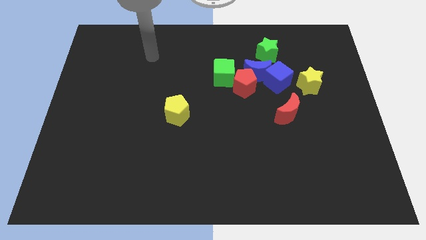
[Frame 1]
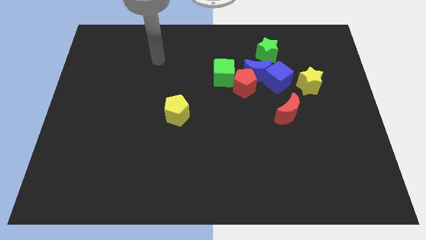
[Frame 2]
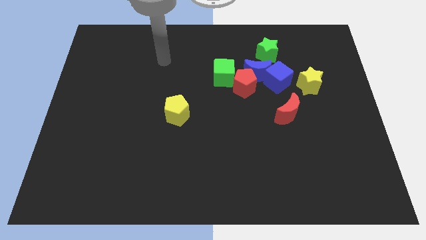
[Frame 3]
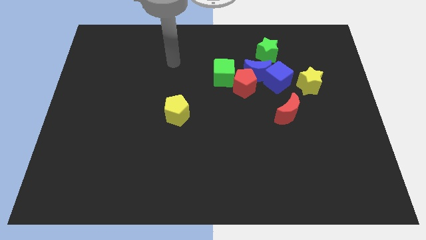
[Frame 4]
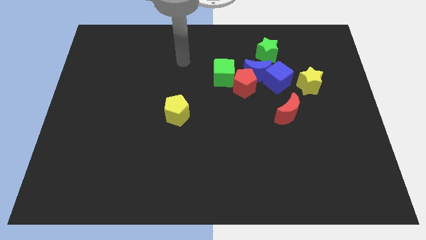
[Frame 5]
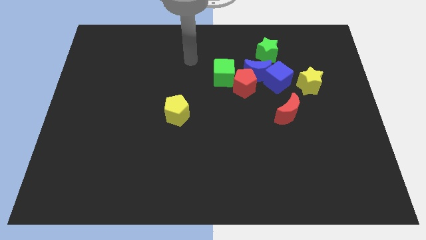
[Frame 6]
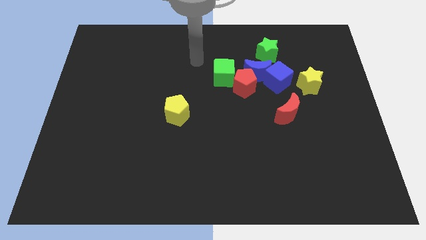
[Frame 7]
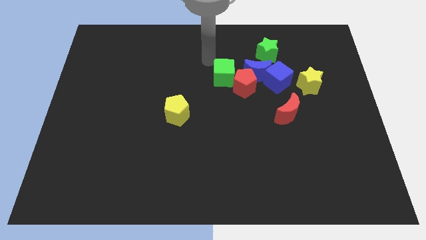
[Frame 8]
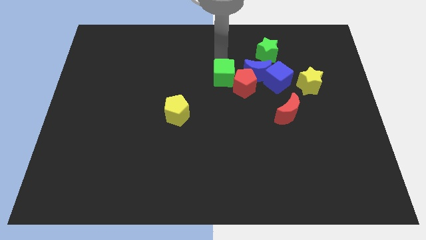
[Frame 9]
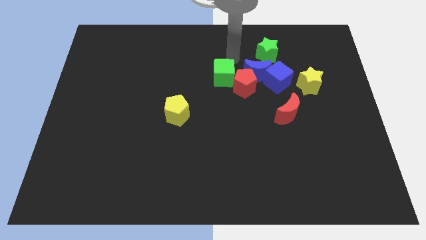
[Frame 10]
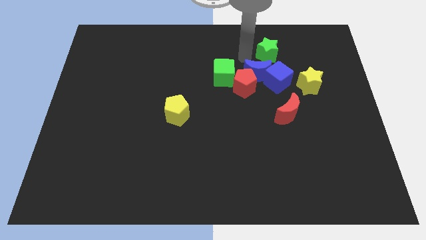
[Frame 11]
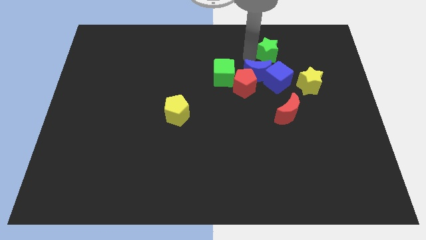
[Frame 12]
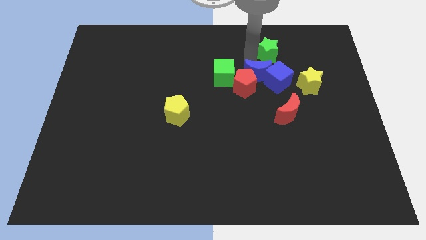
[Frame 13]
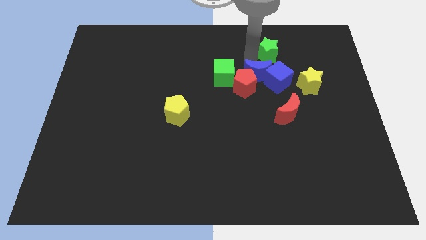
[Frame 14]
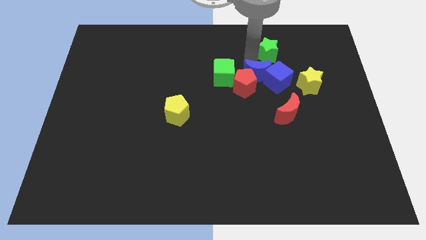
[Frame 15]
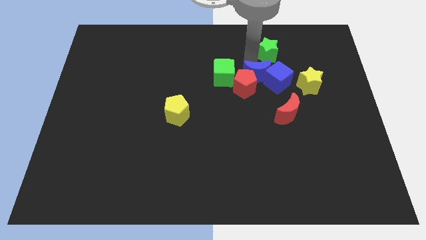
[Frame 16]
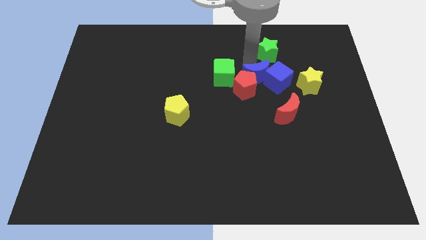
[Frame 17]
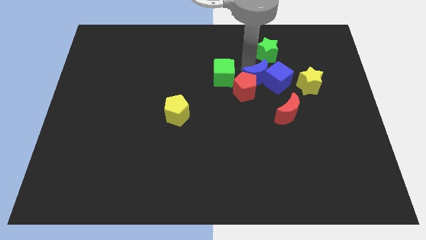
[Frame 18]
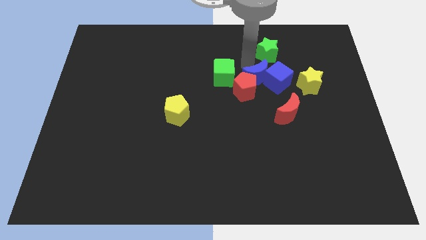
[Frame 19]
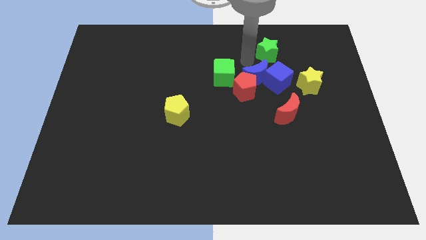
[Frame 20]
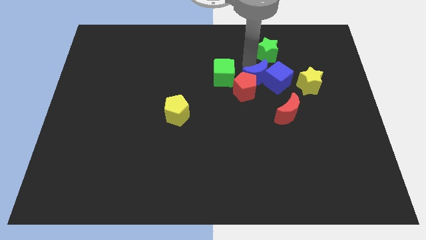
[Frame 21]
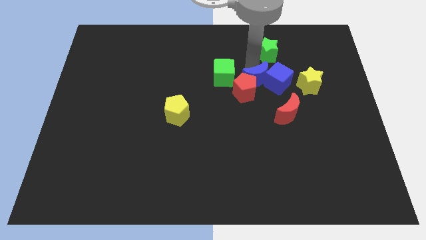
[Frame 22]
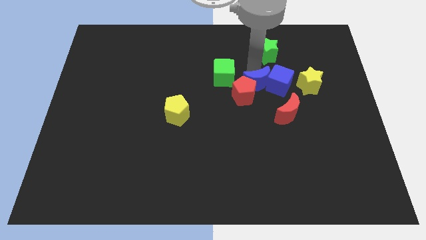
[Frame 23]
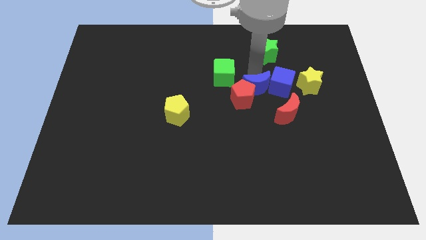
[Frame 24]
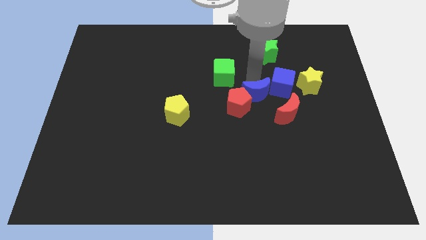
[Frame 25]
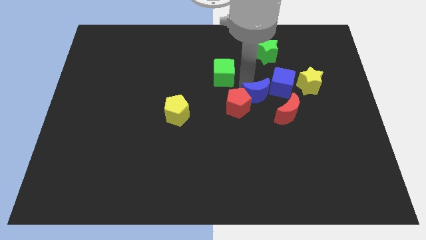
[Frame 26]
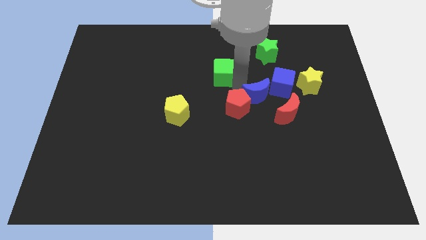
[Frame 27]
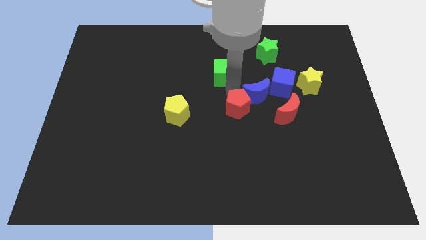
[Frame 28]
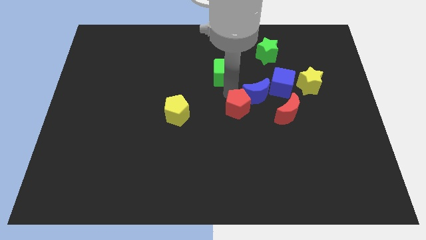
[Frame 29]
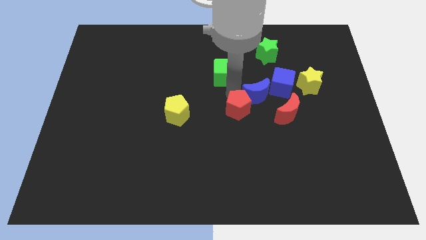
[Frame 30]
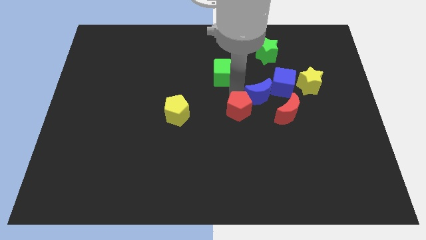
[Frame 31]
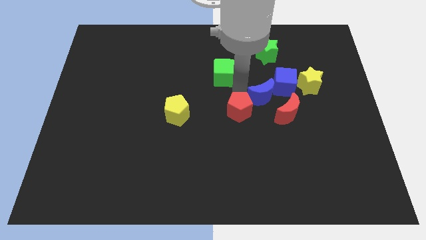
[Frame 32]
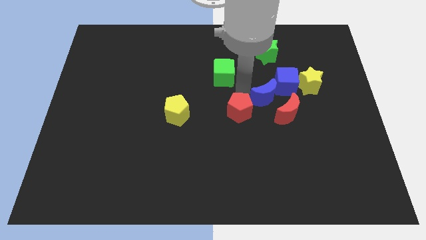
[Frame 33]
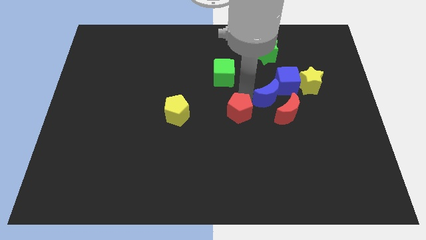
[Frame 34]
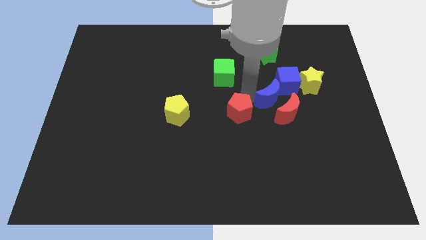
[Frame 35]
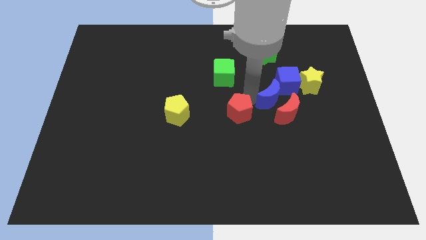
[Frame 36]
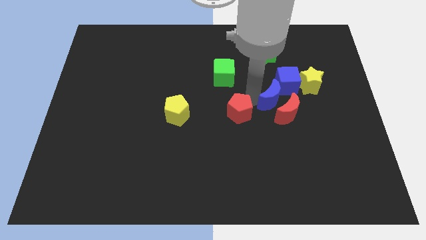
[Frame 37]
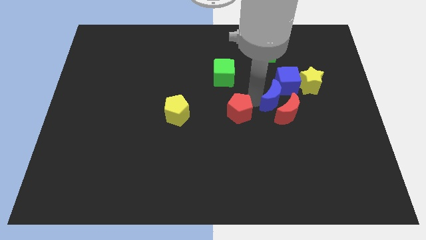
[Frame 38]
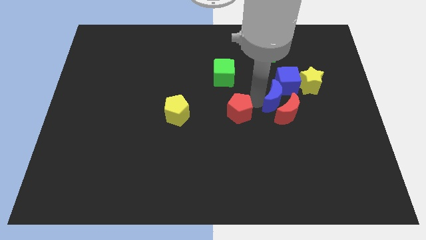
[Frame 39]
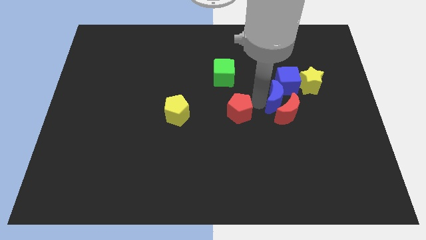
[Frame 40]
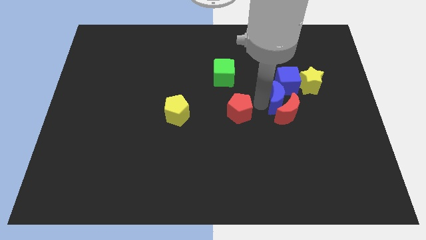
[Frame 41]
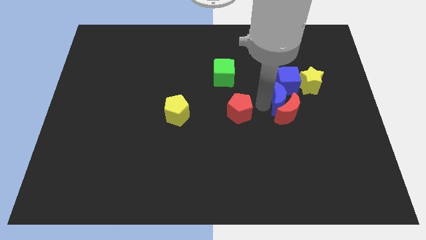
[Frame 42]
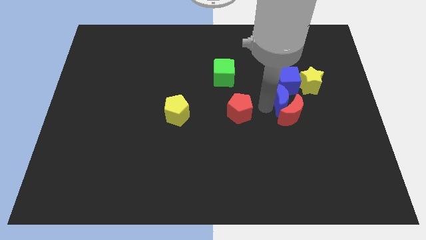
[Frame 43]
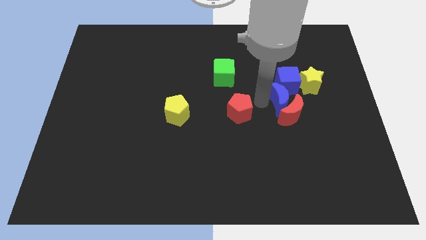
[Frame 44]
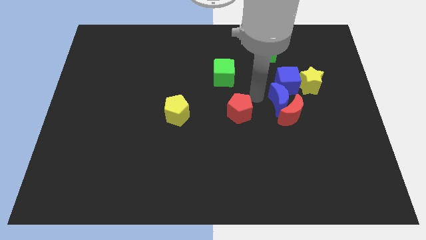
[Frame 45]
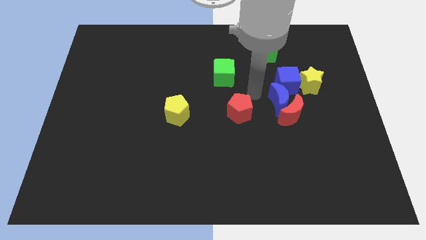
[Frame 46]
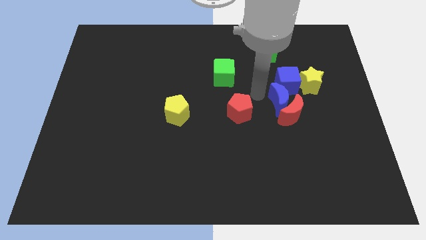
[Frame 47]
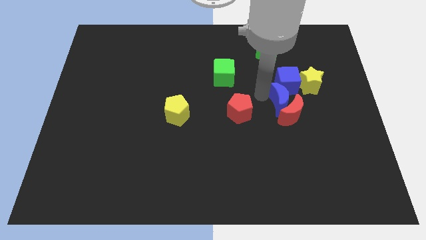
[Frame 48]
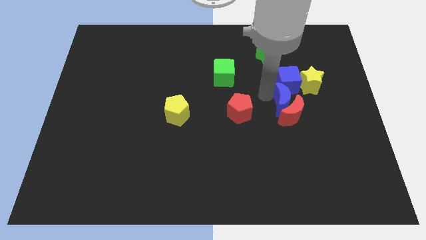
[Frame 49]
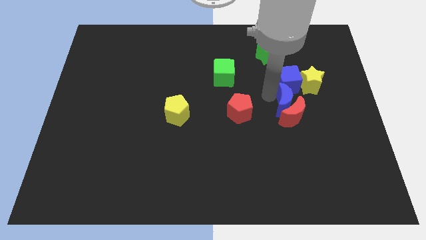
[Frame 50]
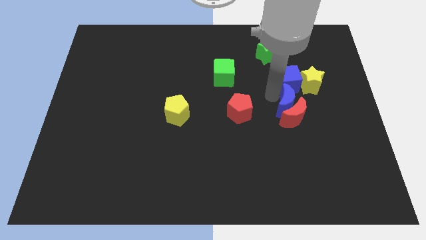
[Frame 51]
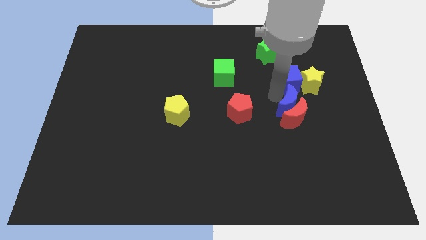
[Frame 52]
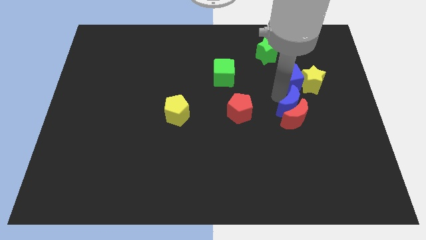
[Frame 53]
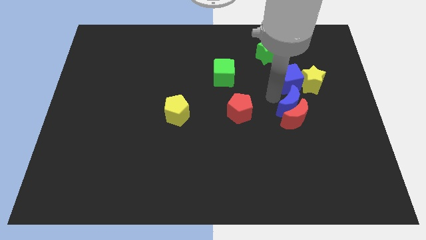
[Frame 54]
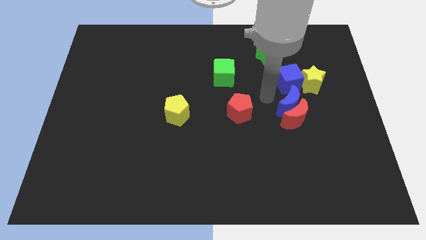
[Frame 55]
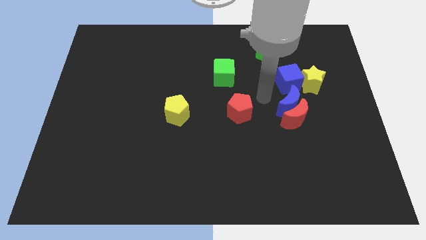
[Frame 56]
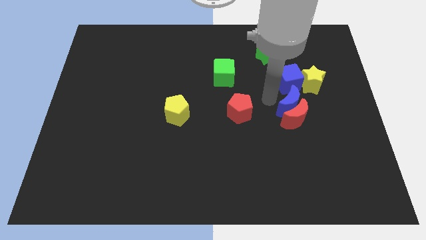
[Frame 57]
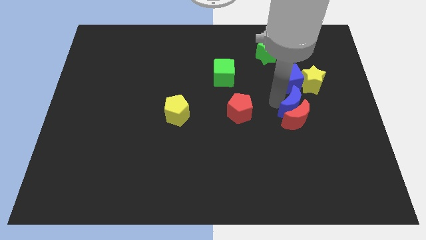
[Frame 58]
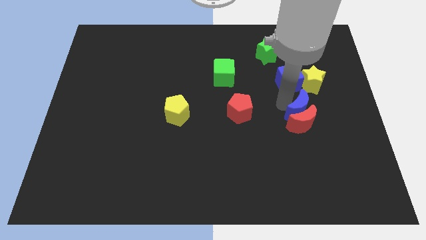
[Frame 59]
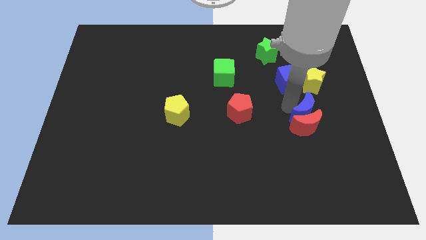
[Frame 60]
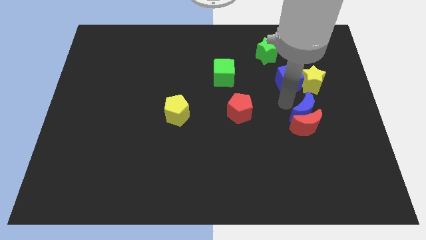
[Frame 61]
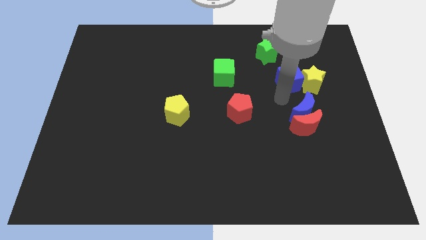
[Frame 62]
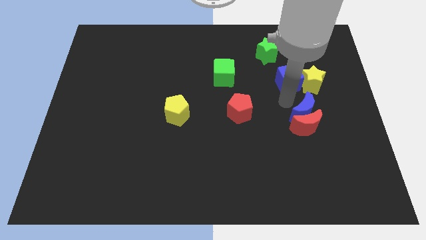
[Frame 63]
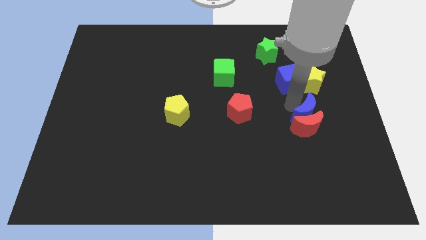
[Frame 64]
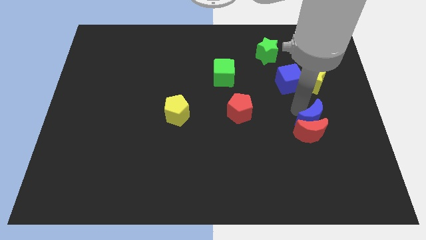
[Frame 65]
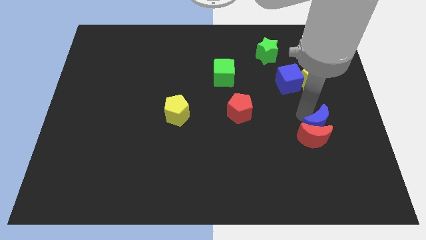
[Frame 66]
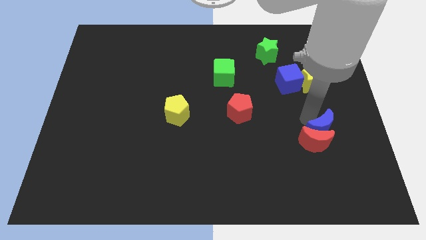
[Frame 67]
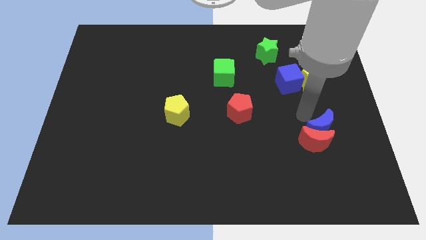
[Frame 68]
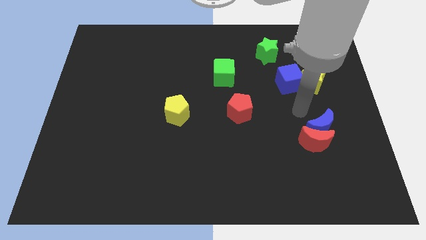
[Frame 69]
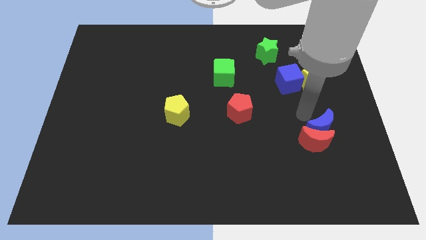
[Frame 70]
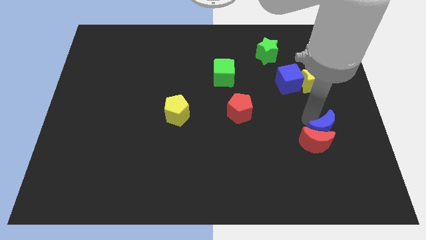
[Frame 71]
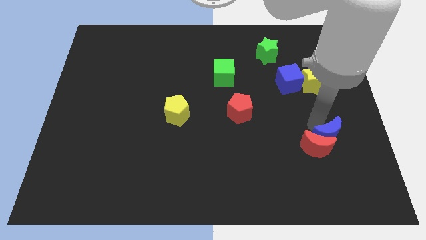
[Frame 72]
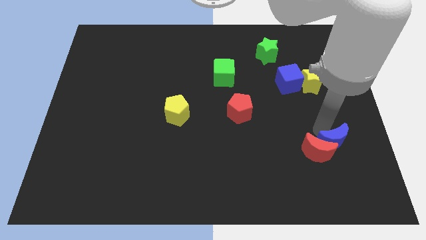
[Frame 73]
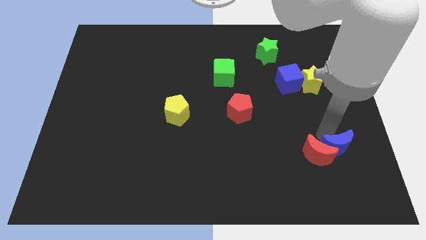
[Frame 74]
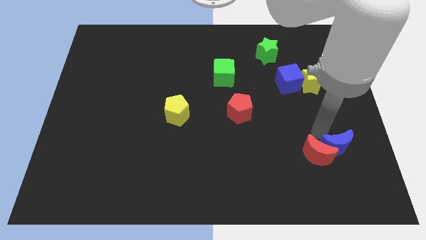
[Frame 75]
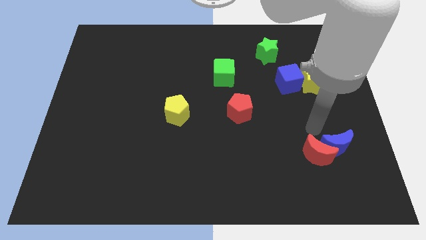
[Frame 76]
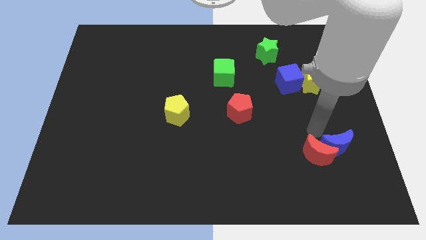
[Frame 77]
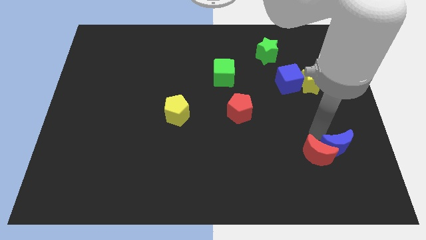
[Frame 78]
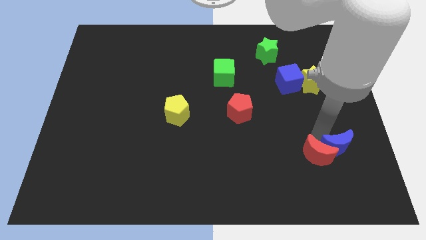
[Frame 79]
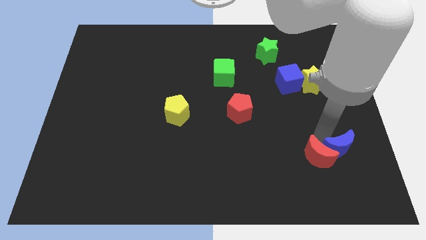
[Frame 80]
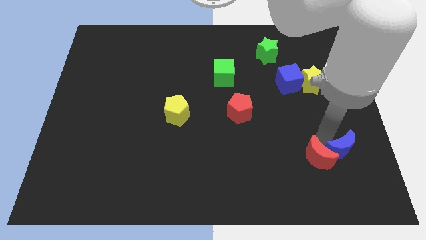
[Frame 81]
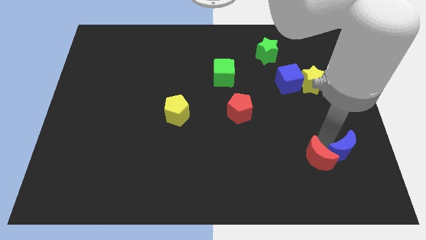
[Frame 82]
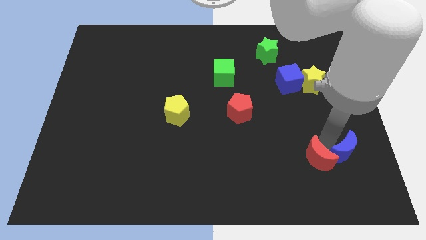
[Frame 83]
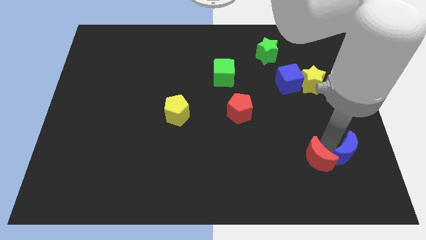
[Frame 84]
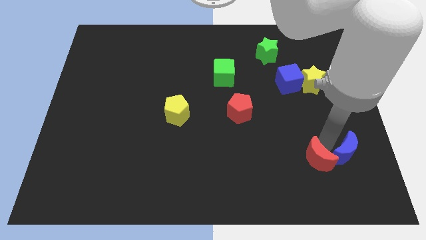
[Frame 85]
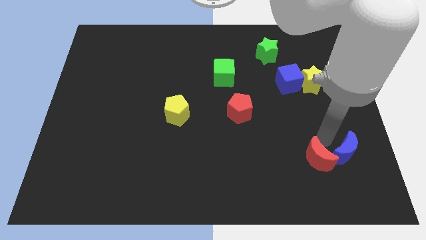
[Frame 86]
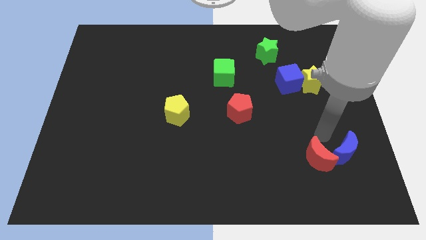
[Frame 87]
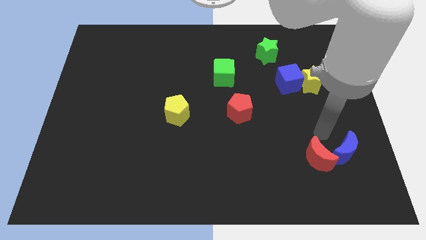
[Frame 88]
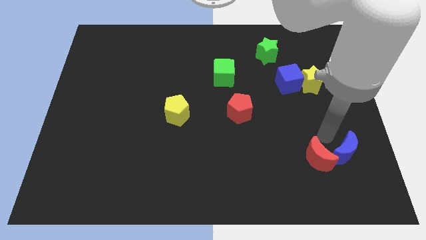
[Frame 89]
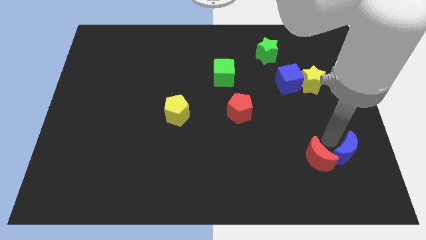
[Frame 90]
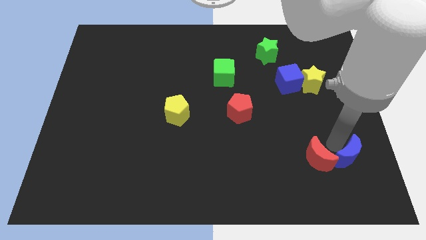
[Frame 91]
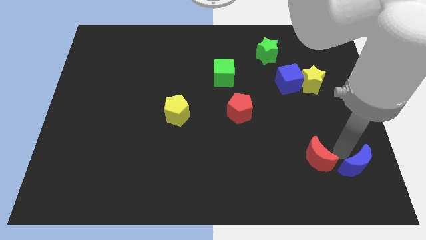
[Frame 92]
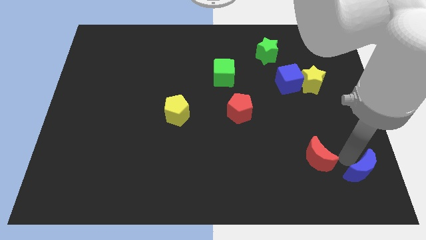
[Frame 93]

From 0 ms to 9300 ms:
put the blue moon to the bottom right corner
